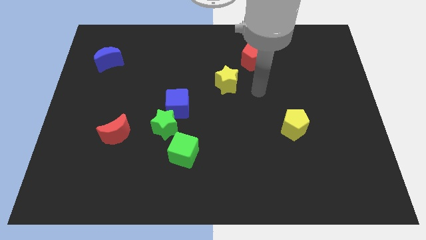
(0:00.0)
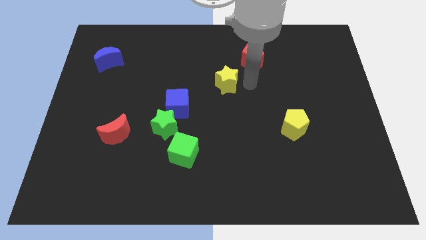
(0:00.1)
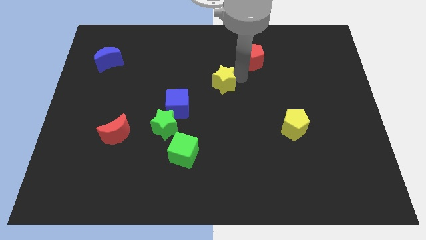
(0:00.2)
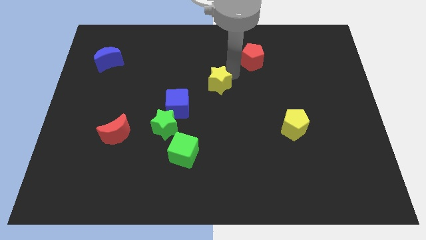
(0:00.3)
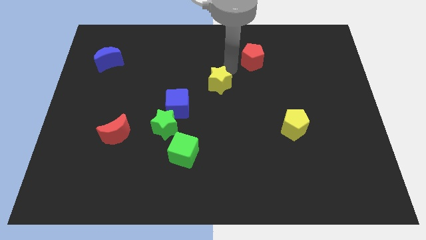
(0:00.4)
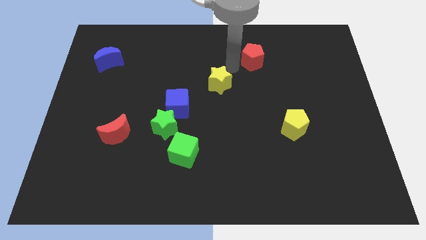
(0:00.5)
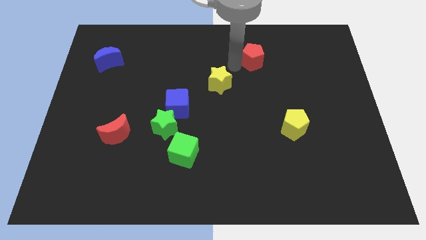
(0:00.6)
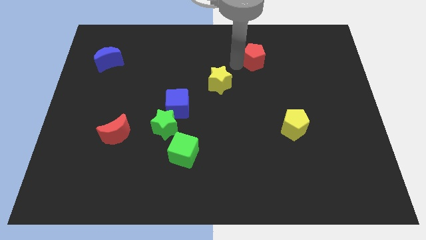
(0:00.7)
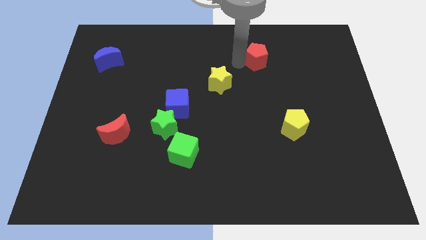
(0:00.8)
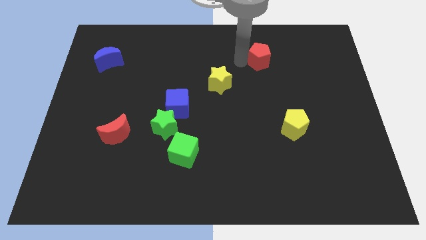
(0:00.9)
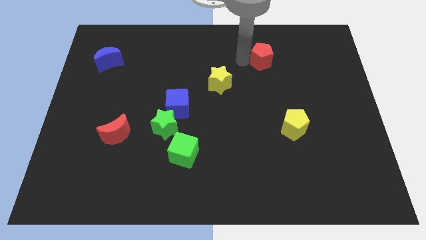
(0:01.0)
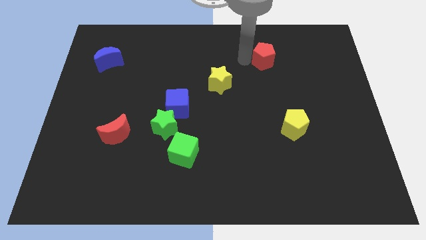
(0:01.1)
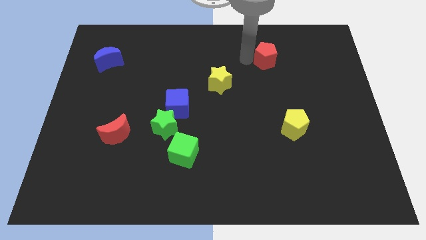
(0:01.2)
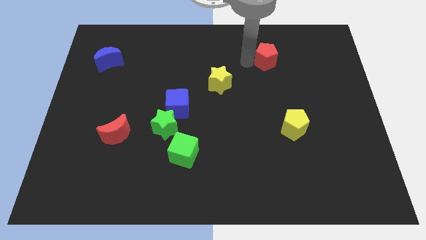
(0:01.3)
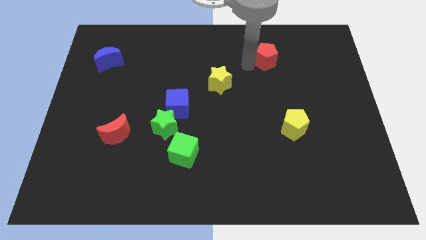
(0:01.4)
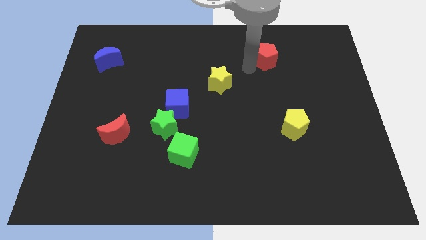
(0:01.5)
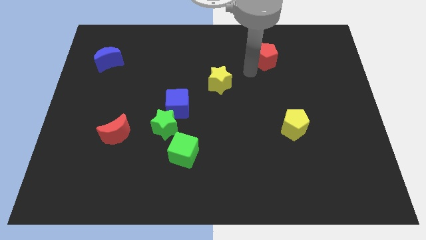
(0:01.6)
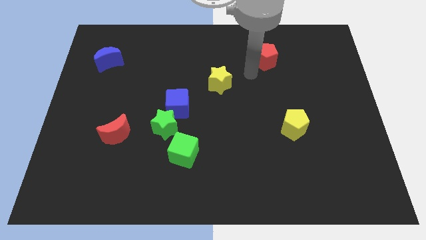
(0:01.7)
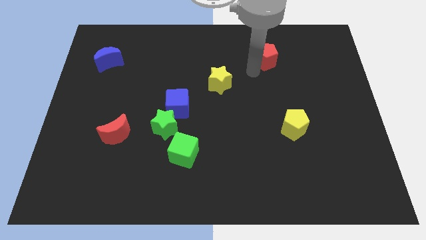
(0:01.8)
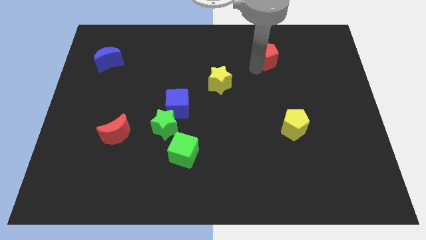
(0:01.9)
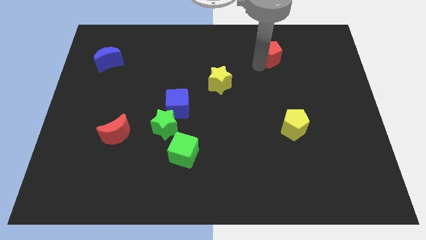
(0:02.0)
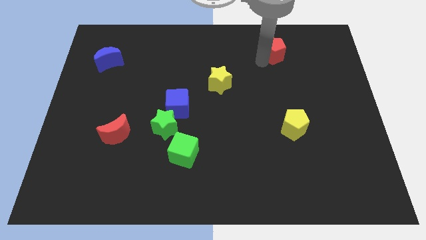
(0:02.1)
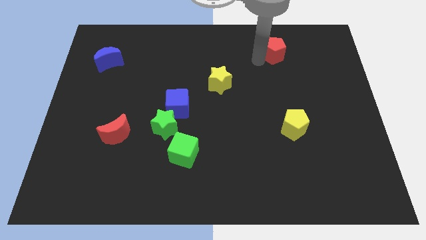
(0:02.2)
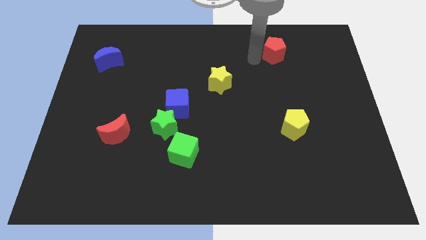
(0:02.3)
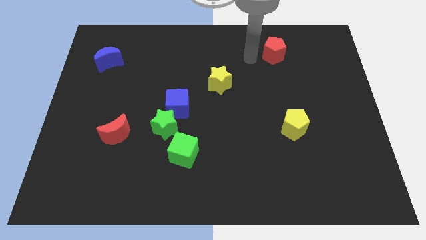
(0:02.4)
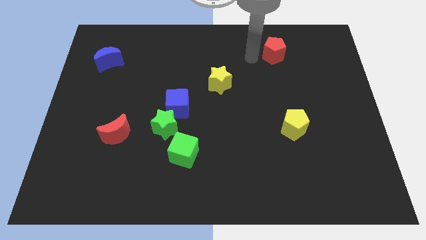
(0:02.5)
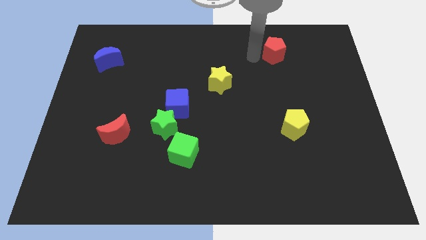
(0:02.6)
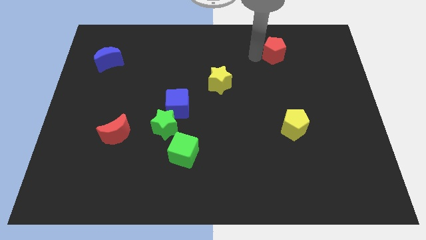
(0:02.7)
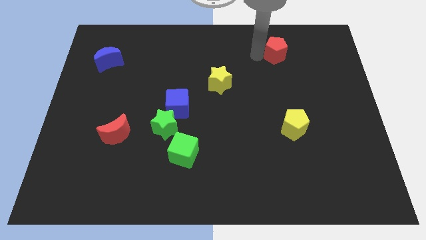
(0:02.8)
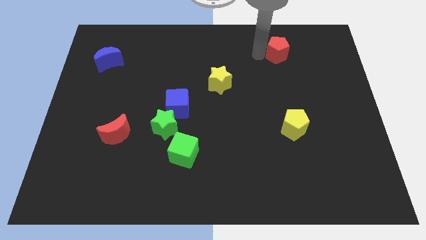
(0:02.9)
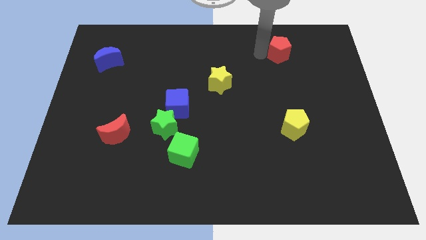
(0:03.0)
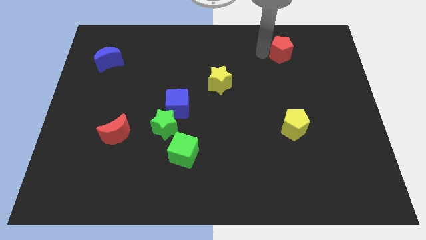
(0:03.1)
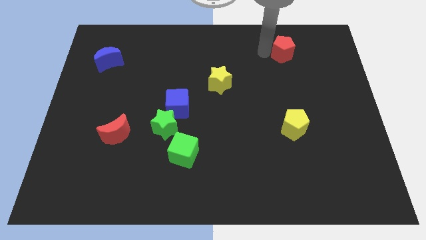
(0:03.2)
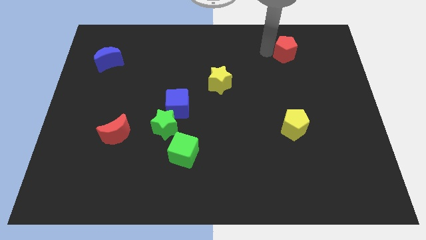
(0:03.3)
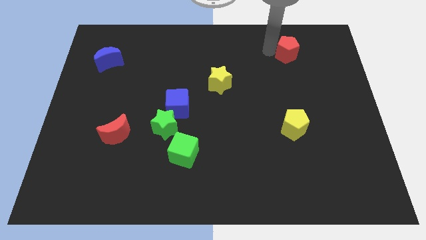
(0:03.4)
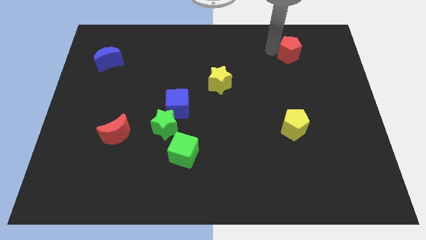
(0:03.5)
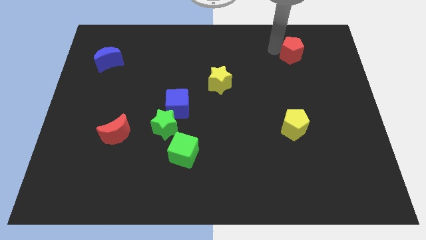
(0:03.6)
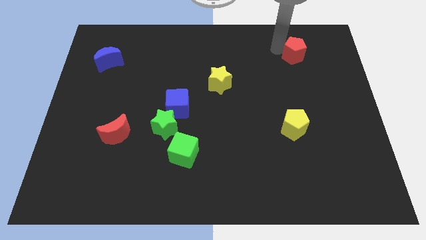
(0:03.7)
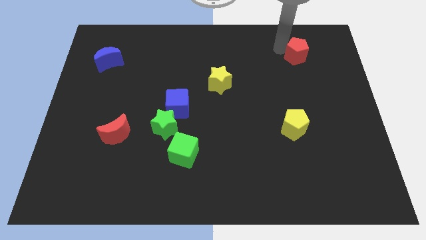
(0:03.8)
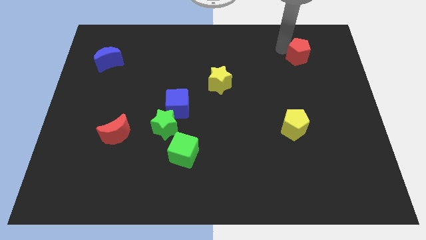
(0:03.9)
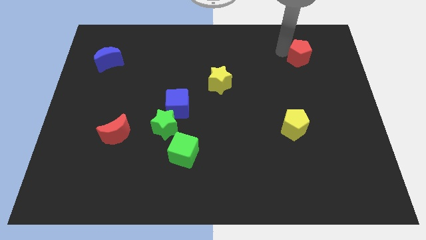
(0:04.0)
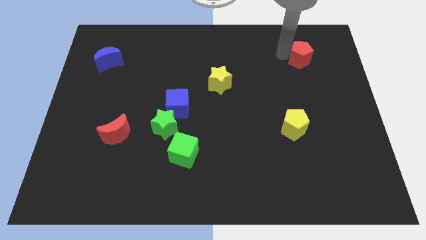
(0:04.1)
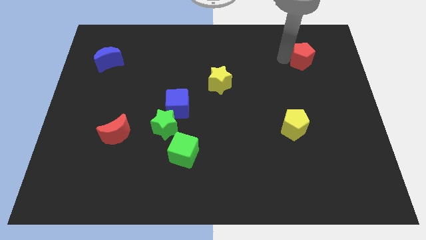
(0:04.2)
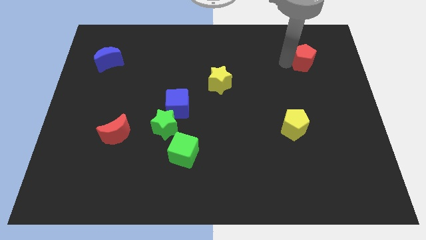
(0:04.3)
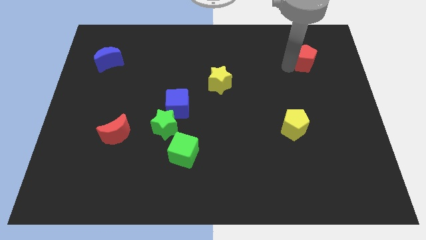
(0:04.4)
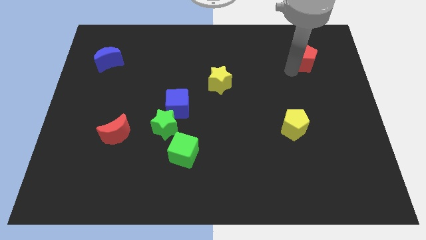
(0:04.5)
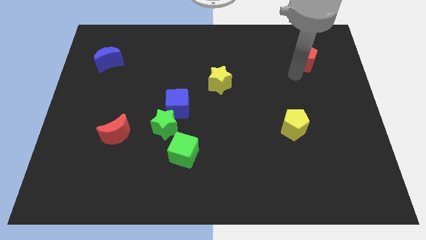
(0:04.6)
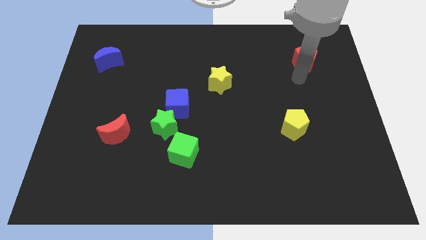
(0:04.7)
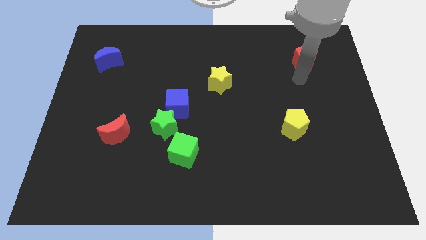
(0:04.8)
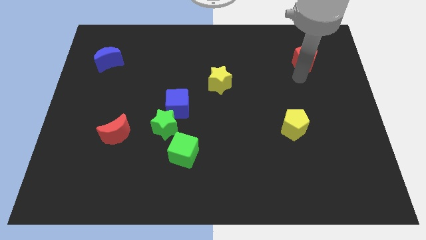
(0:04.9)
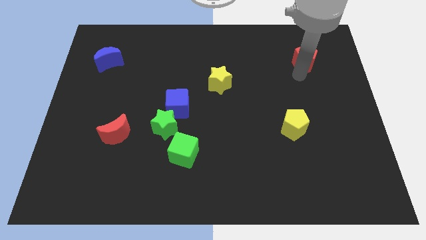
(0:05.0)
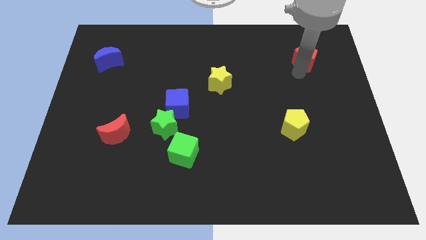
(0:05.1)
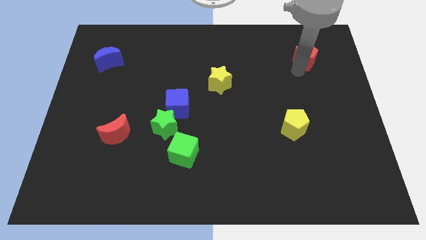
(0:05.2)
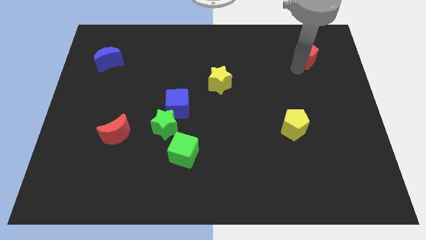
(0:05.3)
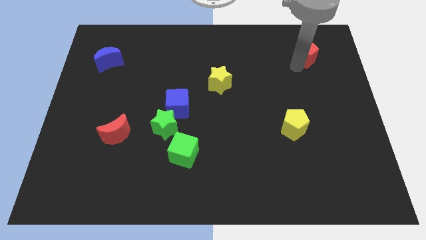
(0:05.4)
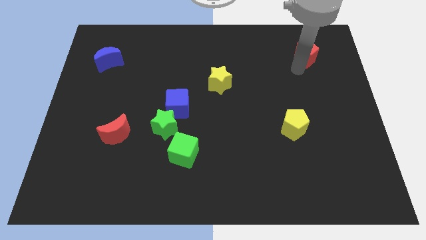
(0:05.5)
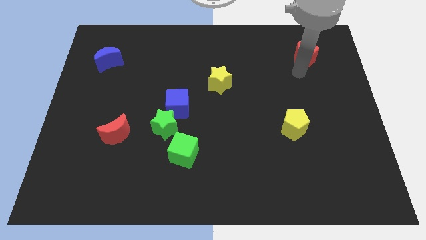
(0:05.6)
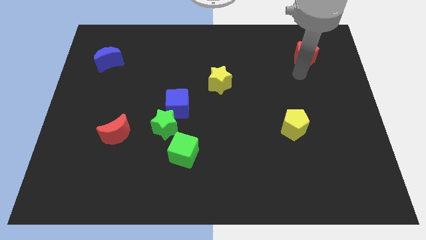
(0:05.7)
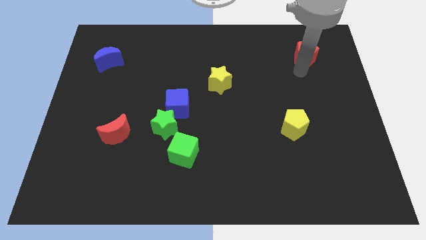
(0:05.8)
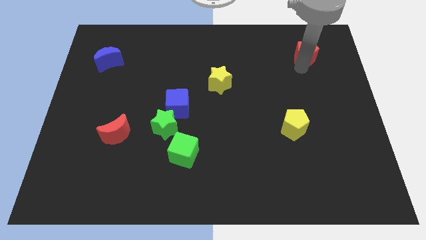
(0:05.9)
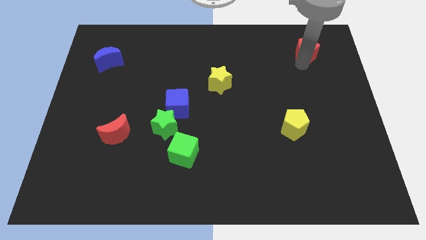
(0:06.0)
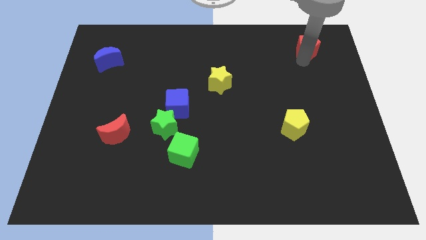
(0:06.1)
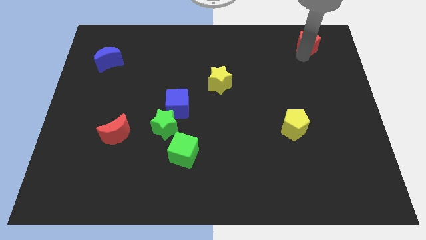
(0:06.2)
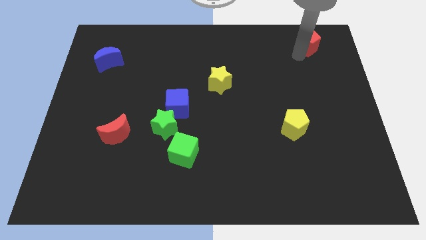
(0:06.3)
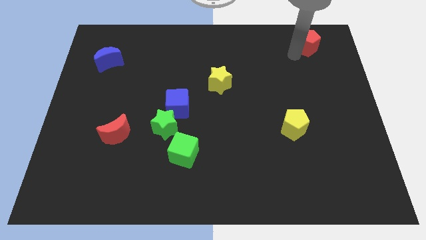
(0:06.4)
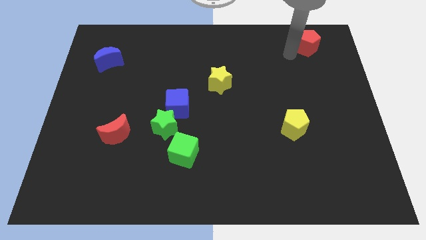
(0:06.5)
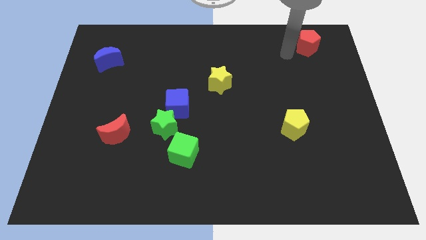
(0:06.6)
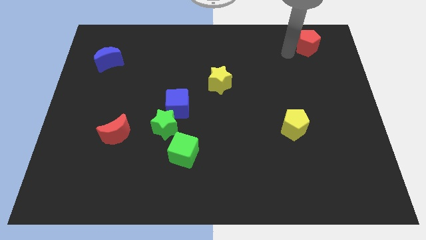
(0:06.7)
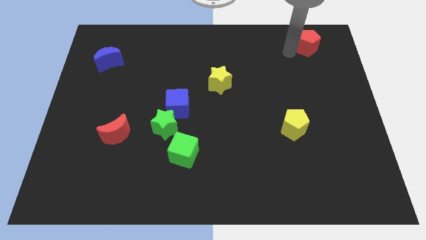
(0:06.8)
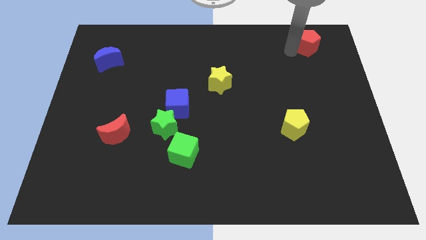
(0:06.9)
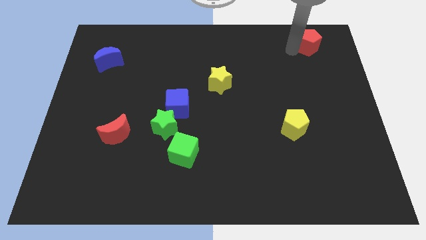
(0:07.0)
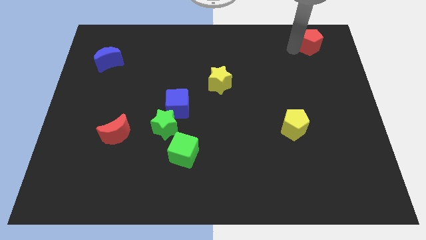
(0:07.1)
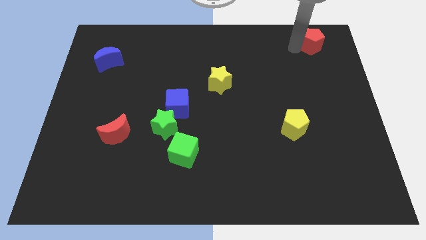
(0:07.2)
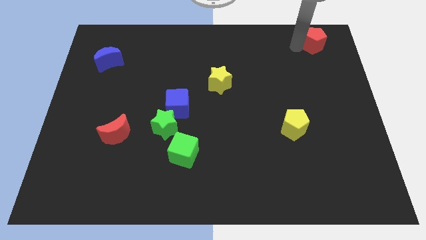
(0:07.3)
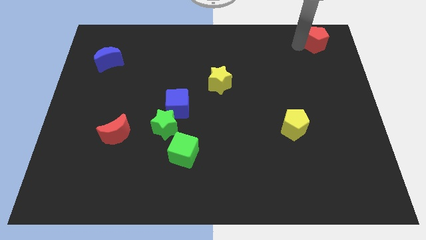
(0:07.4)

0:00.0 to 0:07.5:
move the red pentagon to the upper right corner
